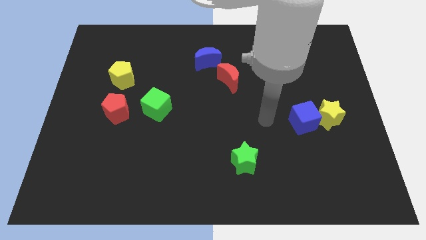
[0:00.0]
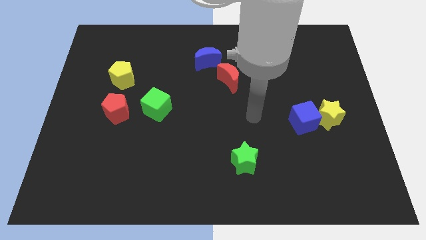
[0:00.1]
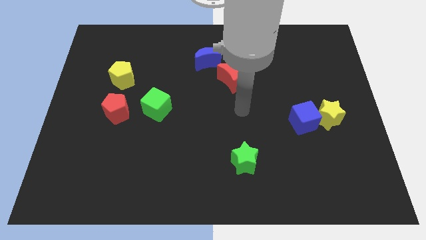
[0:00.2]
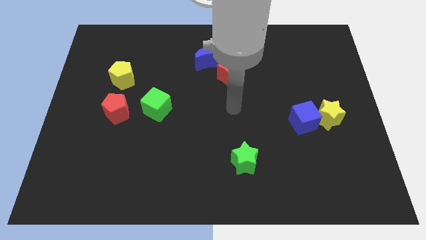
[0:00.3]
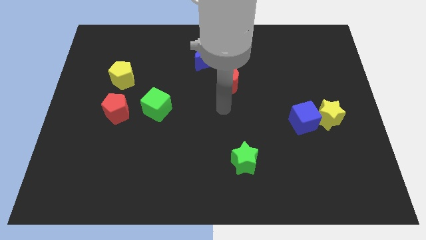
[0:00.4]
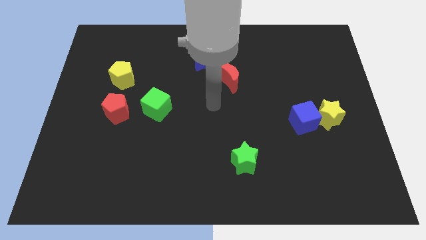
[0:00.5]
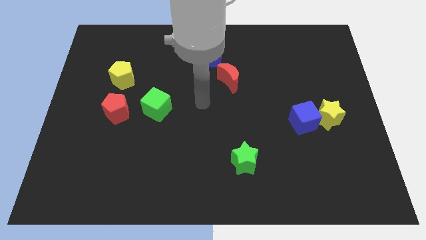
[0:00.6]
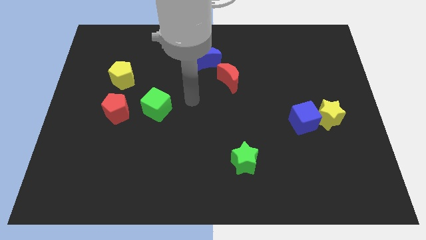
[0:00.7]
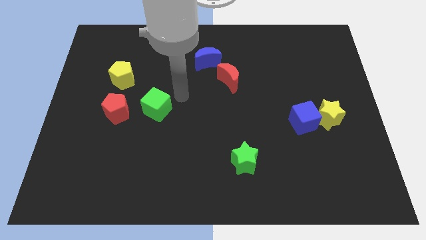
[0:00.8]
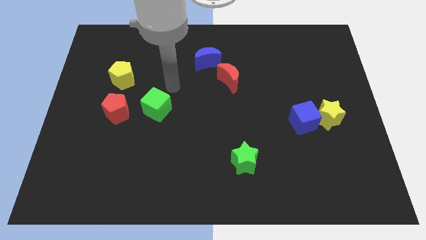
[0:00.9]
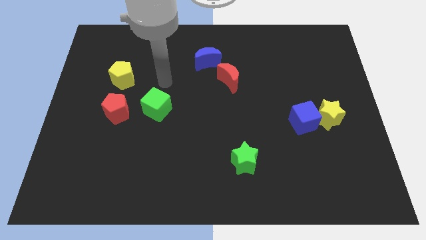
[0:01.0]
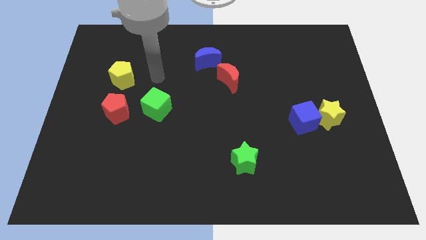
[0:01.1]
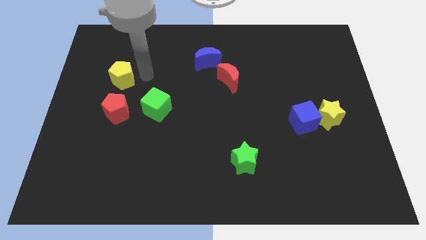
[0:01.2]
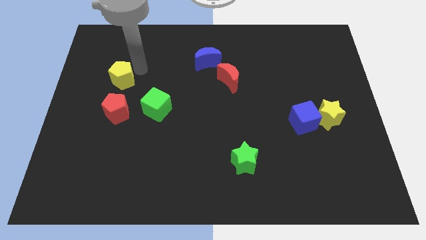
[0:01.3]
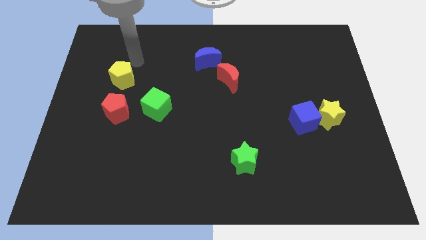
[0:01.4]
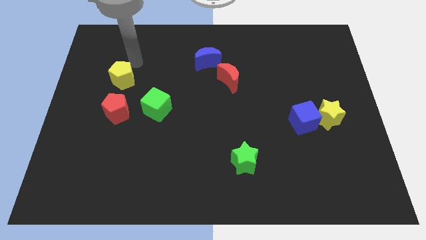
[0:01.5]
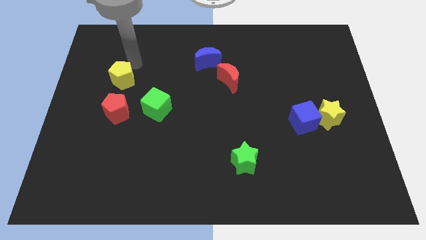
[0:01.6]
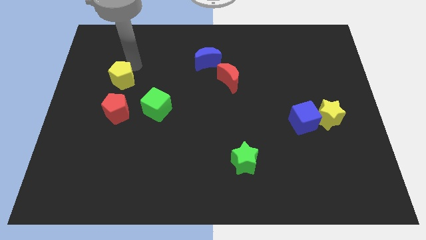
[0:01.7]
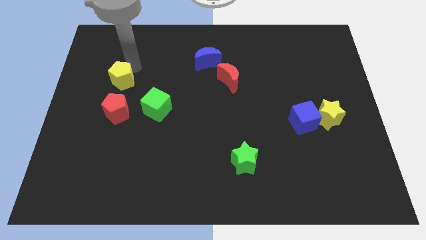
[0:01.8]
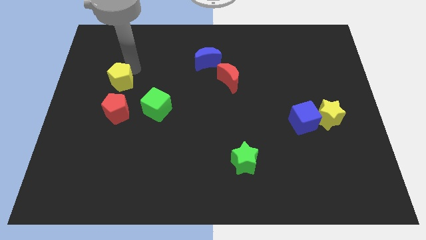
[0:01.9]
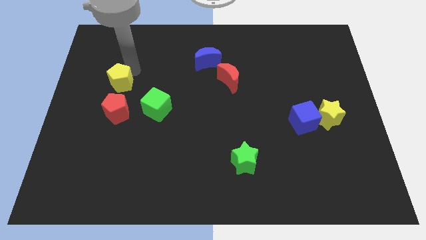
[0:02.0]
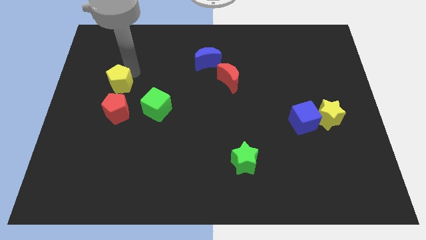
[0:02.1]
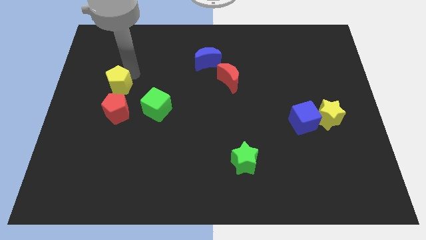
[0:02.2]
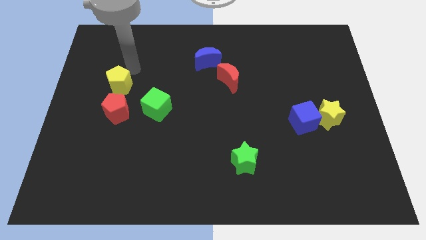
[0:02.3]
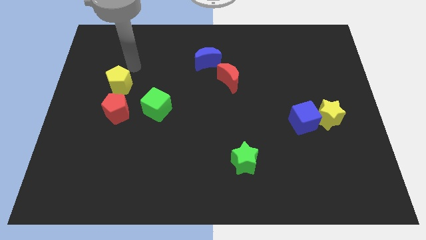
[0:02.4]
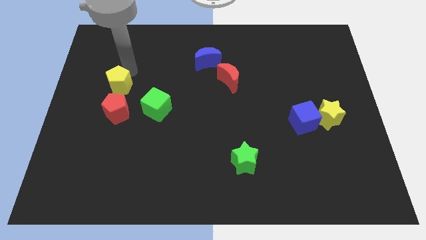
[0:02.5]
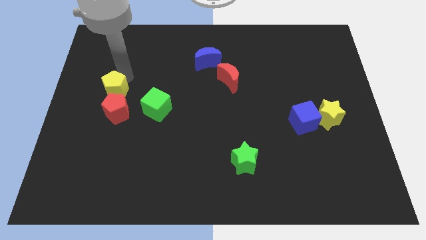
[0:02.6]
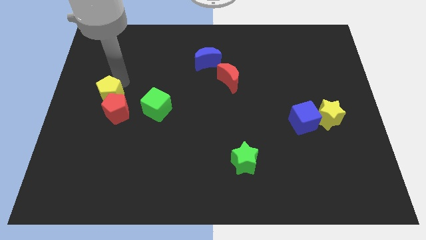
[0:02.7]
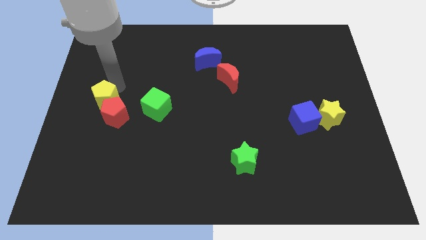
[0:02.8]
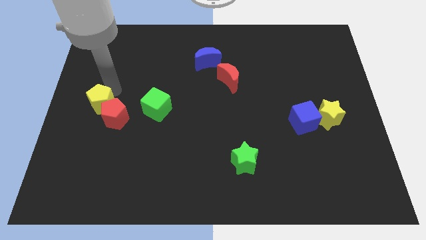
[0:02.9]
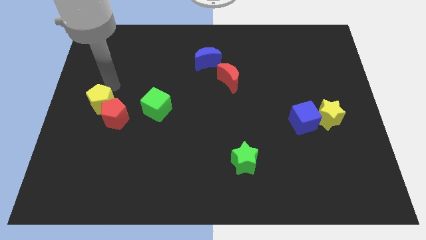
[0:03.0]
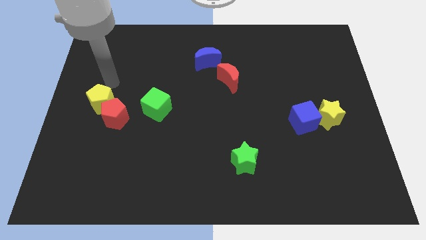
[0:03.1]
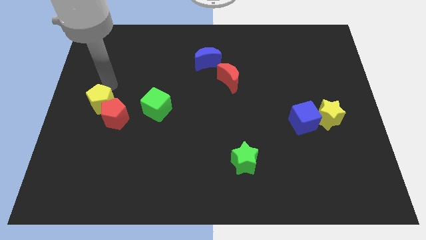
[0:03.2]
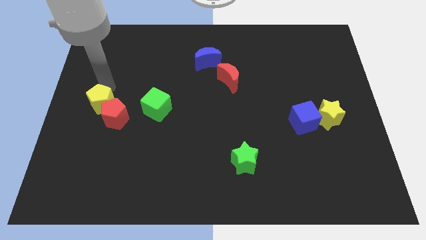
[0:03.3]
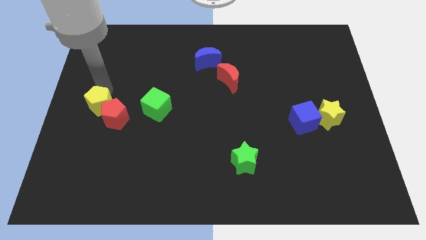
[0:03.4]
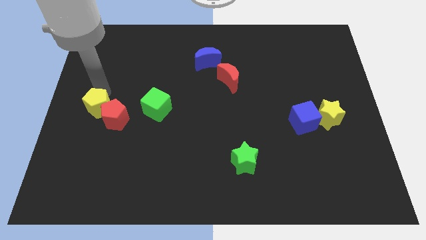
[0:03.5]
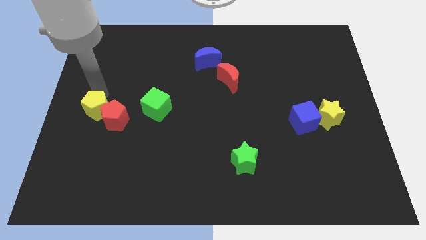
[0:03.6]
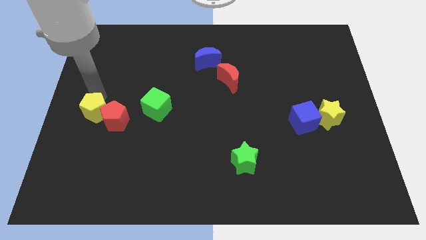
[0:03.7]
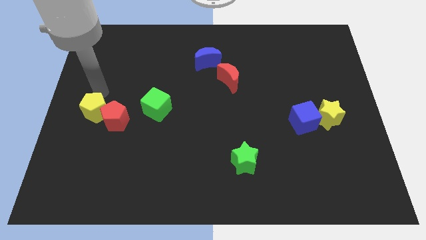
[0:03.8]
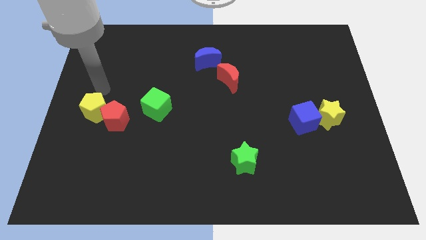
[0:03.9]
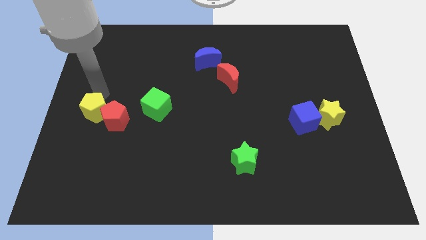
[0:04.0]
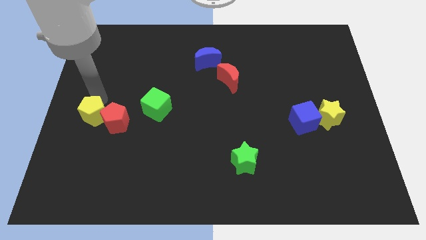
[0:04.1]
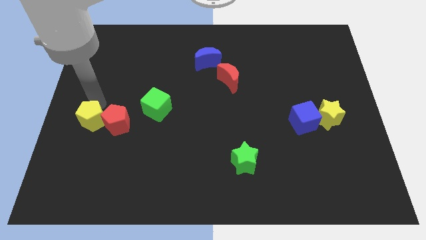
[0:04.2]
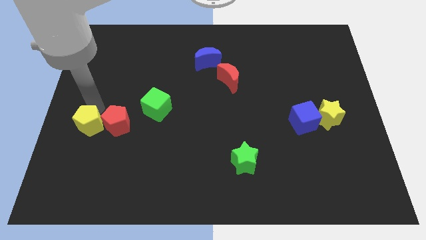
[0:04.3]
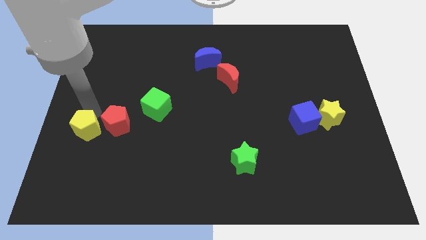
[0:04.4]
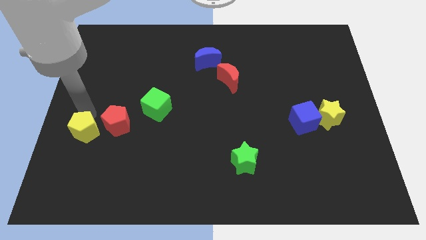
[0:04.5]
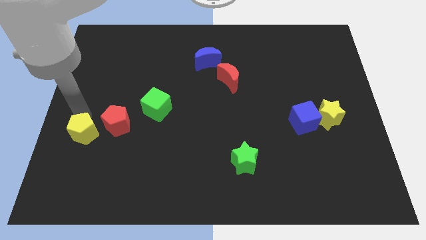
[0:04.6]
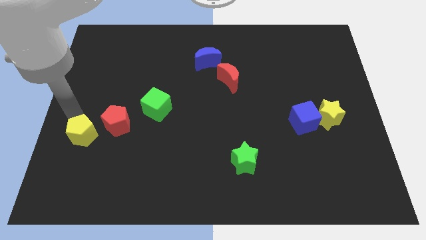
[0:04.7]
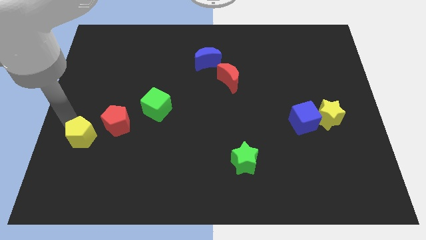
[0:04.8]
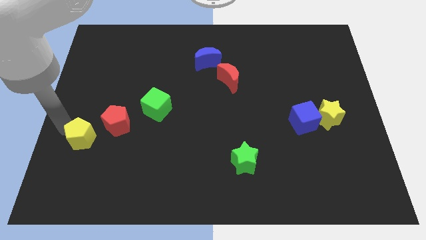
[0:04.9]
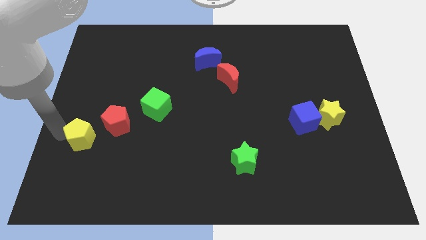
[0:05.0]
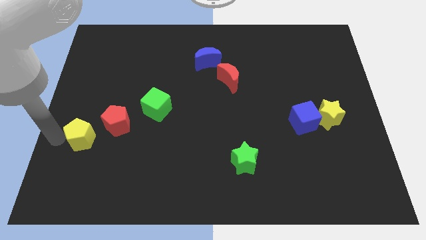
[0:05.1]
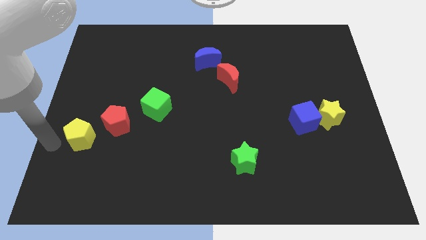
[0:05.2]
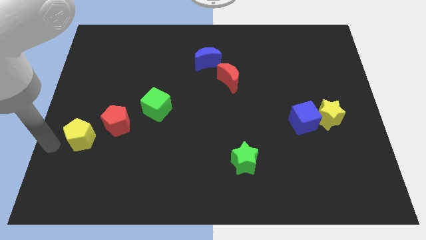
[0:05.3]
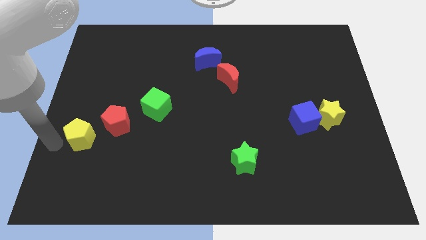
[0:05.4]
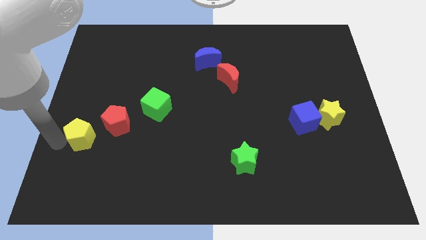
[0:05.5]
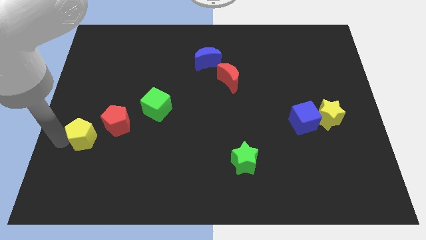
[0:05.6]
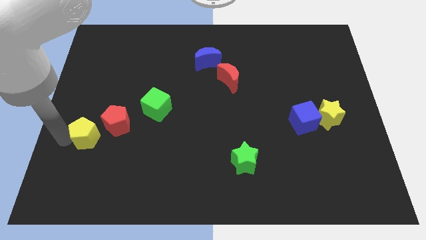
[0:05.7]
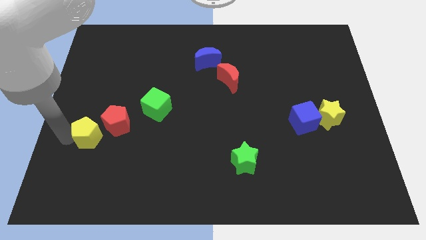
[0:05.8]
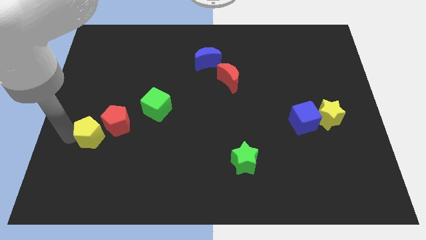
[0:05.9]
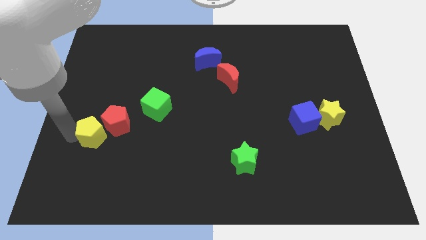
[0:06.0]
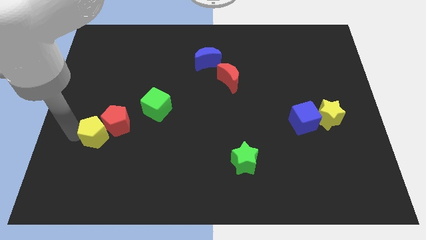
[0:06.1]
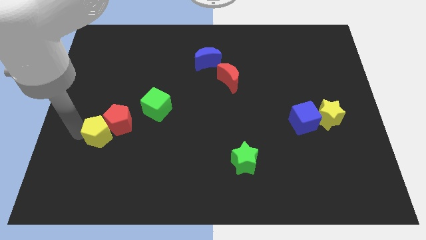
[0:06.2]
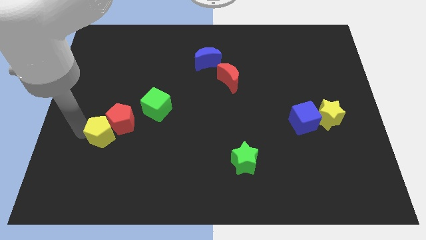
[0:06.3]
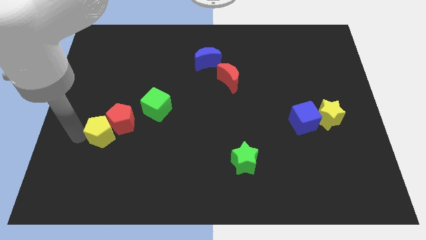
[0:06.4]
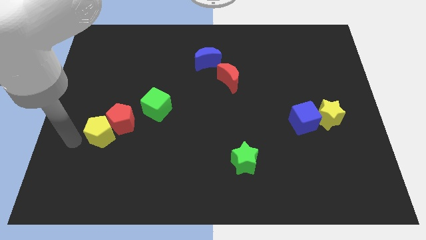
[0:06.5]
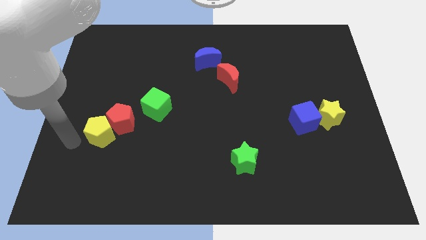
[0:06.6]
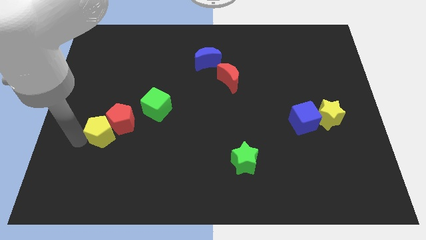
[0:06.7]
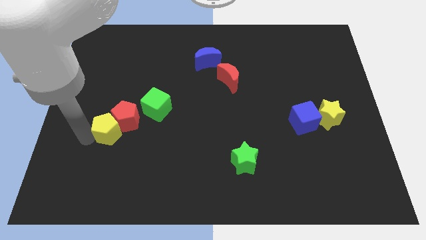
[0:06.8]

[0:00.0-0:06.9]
push the yellow pentagon to the bottom left of the green cube
